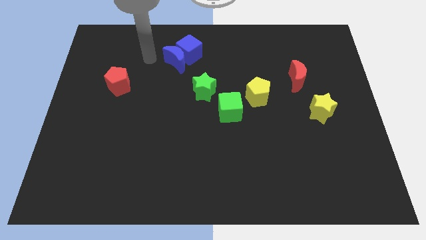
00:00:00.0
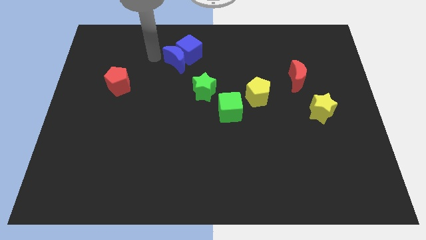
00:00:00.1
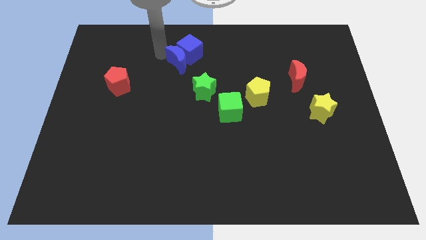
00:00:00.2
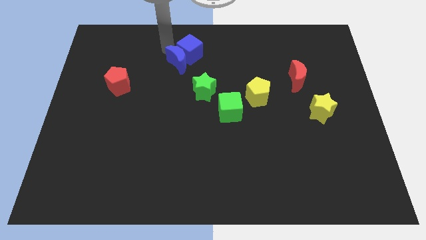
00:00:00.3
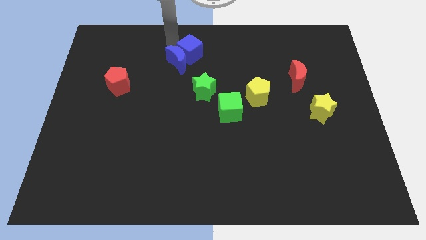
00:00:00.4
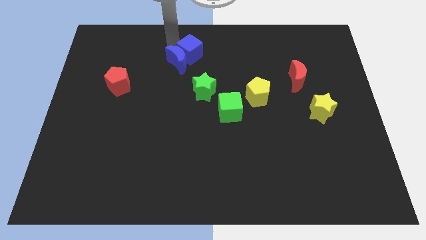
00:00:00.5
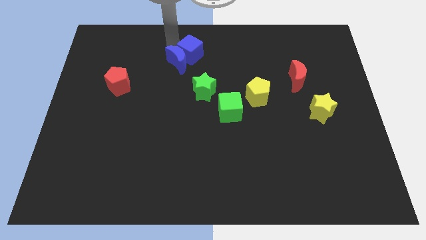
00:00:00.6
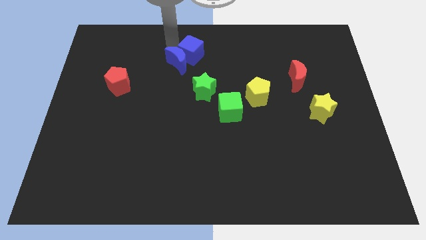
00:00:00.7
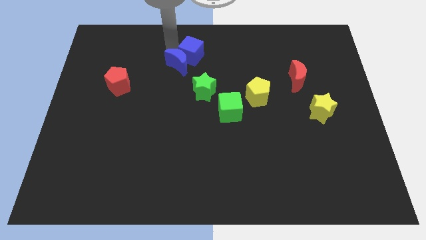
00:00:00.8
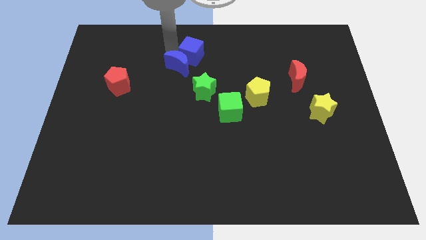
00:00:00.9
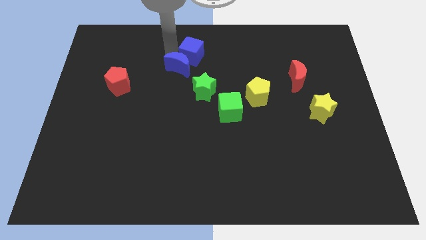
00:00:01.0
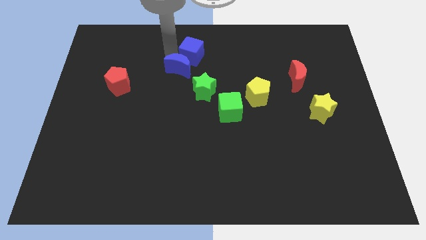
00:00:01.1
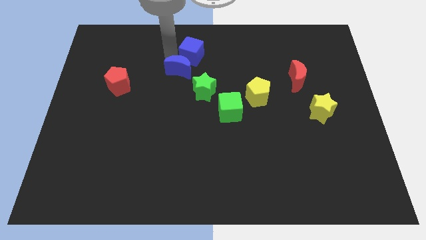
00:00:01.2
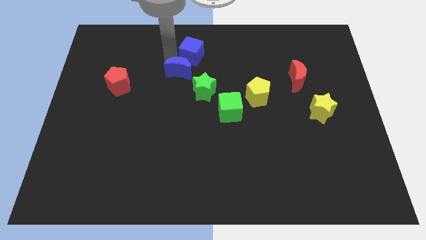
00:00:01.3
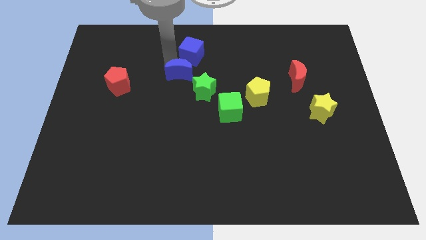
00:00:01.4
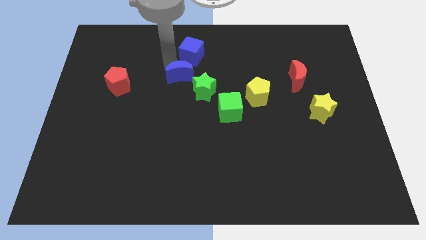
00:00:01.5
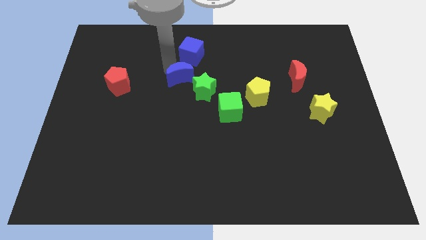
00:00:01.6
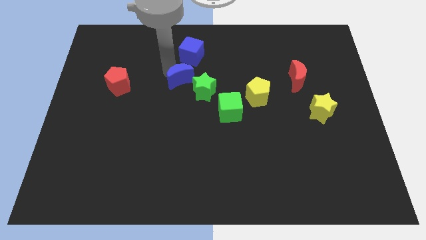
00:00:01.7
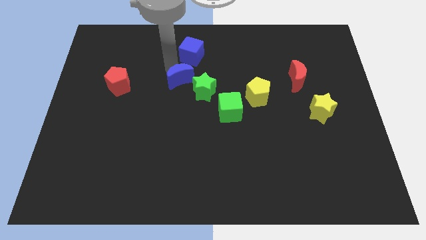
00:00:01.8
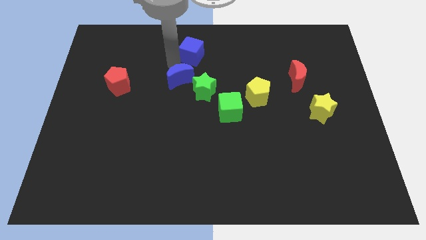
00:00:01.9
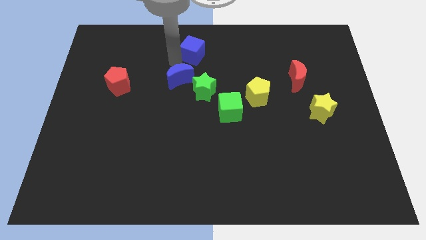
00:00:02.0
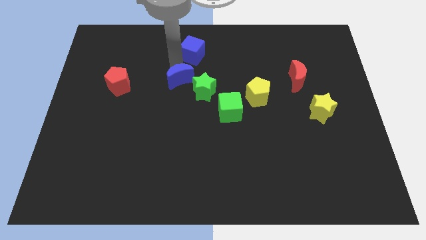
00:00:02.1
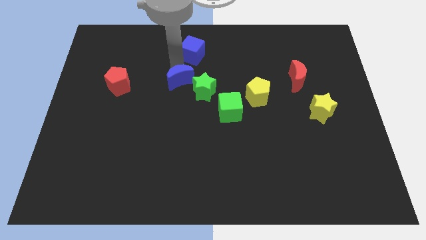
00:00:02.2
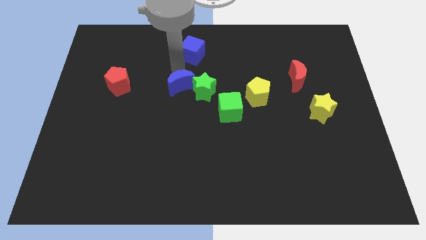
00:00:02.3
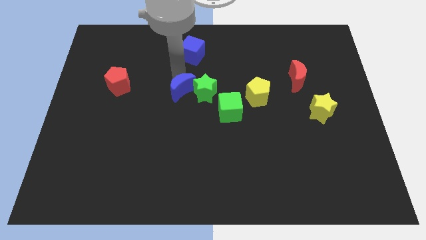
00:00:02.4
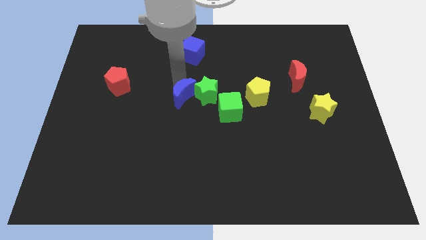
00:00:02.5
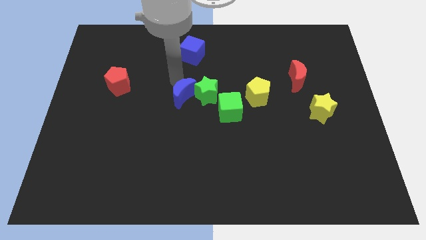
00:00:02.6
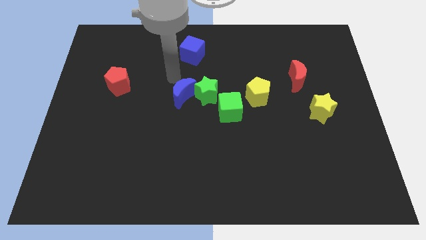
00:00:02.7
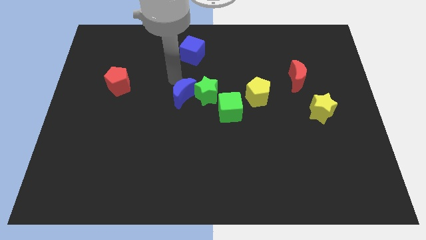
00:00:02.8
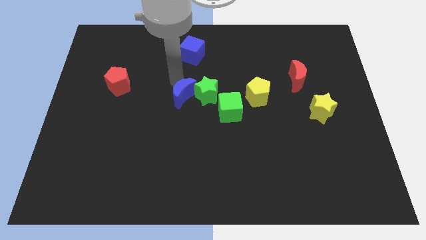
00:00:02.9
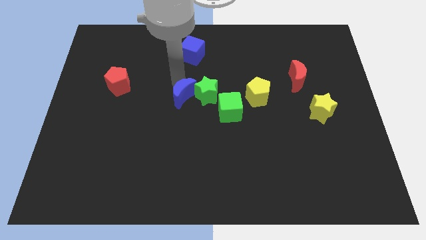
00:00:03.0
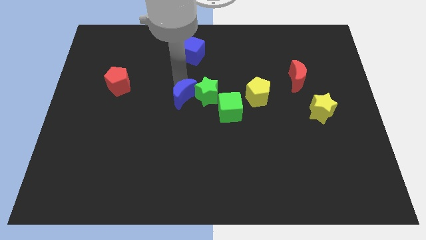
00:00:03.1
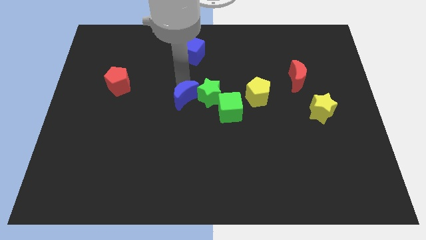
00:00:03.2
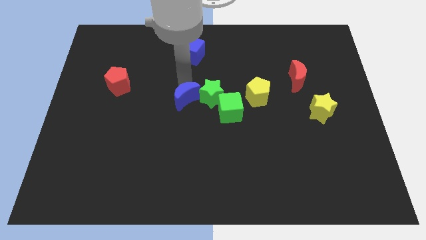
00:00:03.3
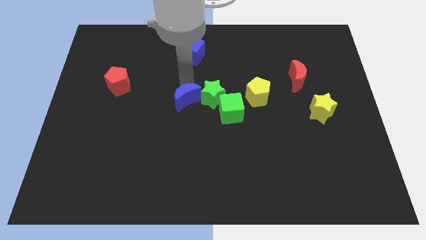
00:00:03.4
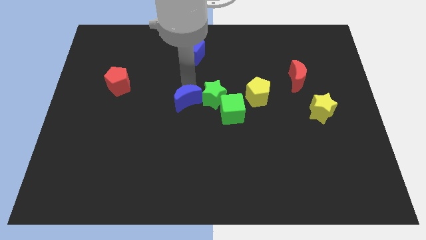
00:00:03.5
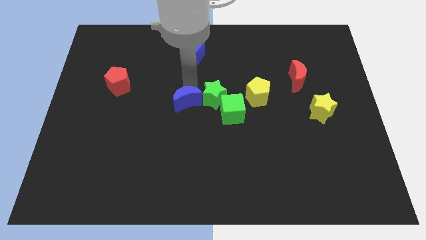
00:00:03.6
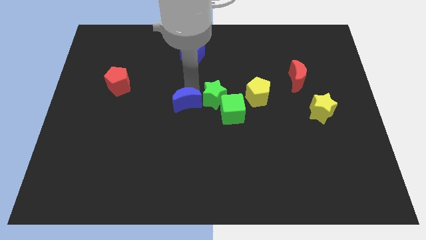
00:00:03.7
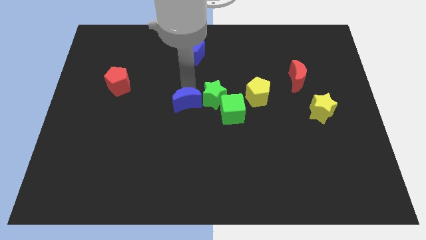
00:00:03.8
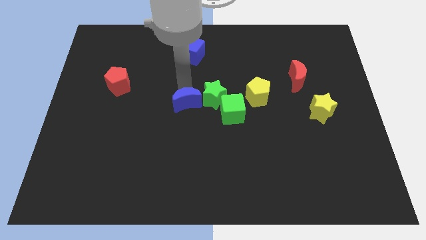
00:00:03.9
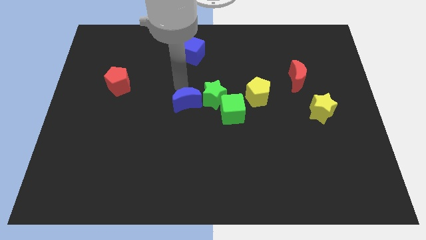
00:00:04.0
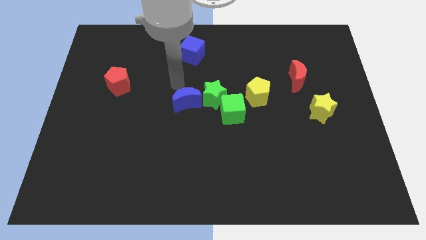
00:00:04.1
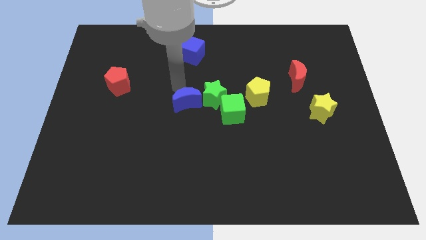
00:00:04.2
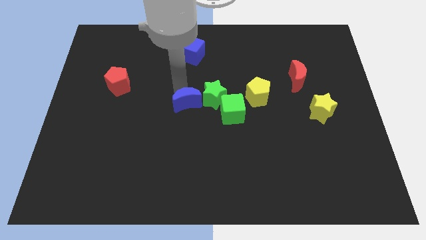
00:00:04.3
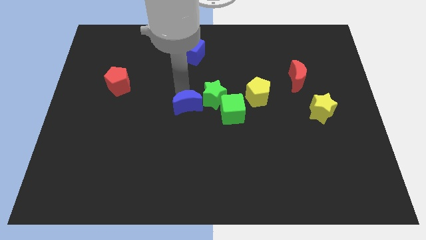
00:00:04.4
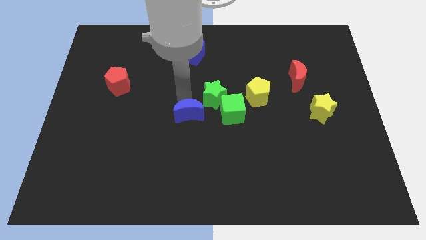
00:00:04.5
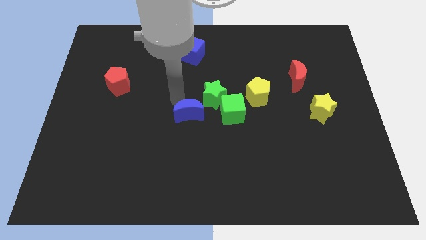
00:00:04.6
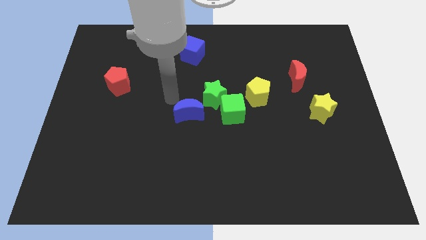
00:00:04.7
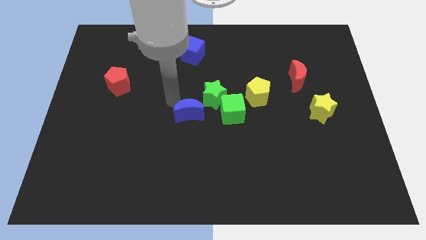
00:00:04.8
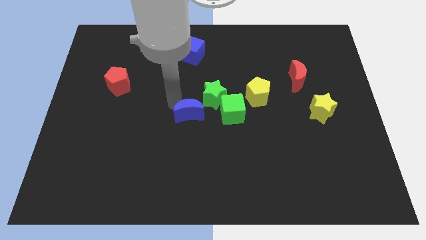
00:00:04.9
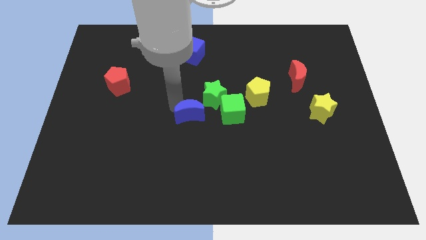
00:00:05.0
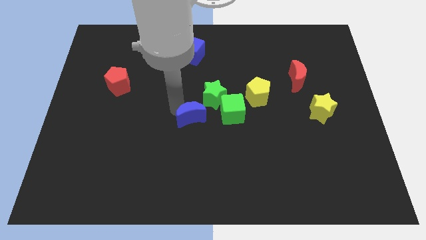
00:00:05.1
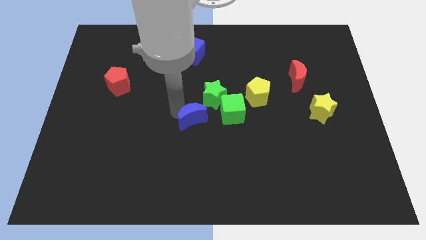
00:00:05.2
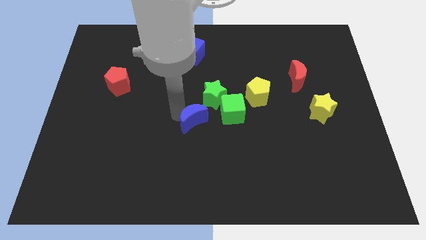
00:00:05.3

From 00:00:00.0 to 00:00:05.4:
slide the blue moon to the bottom side of the green star

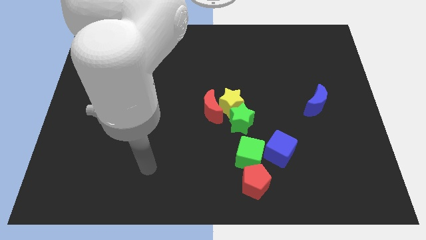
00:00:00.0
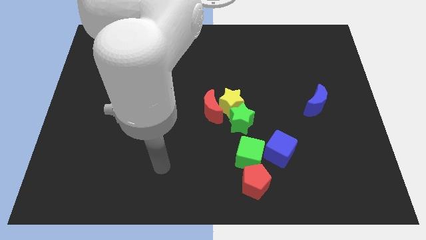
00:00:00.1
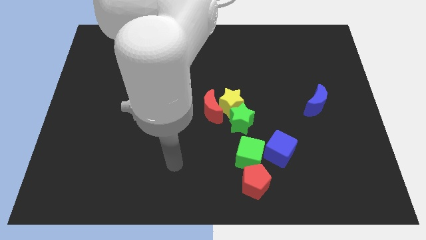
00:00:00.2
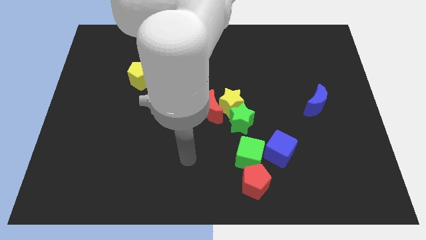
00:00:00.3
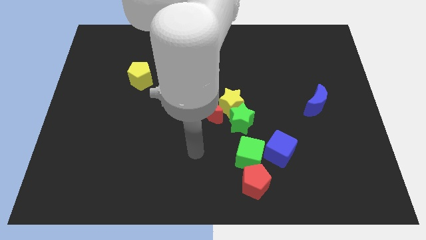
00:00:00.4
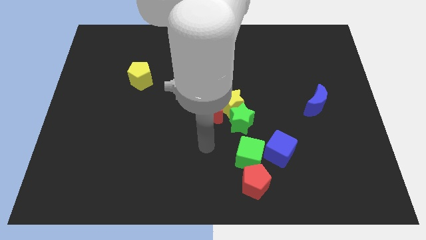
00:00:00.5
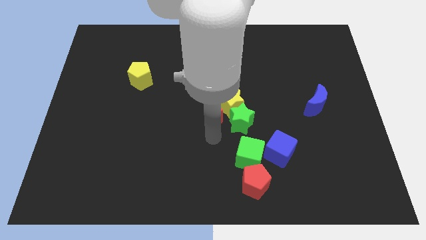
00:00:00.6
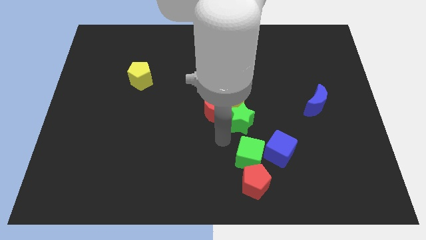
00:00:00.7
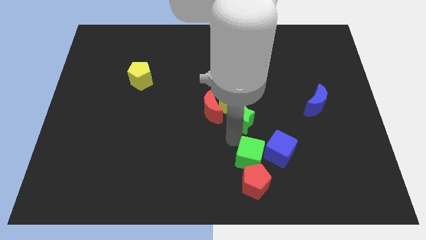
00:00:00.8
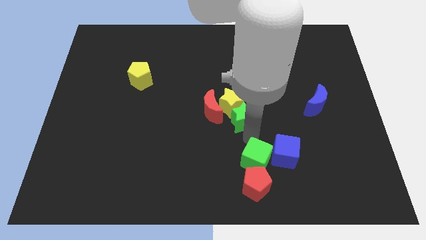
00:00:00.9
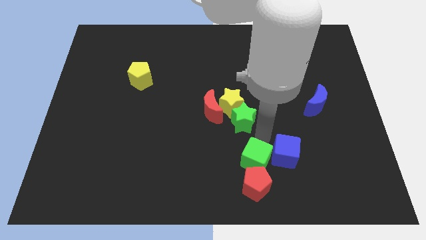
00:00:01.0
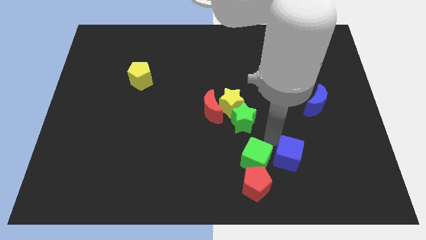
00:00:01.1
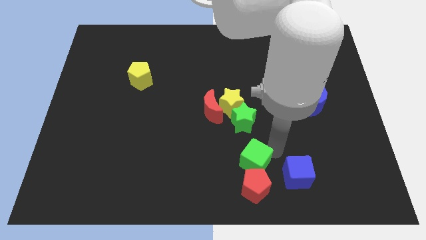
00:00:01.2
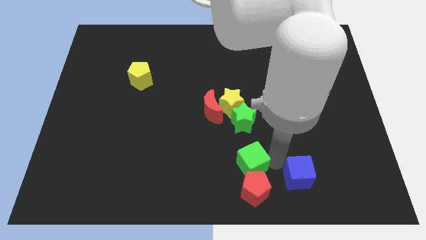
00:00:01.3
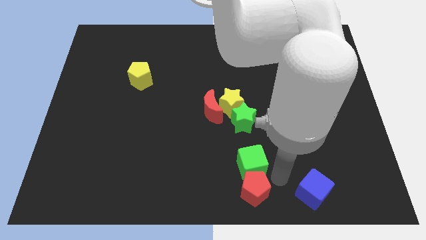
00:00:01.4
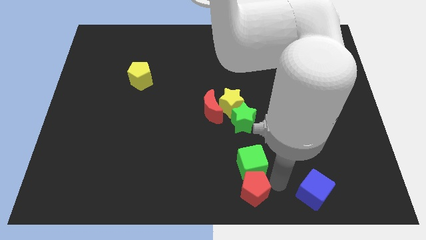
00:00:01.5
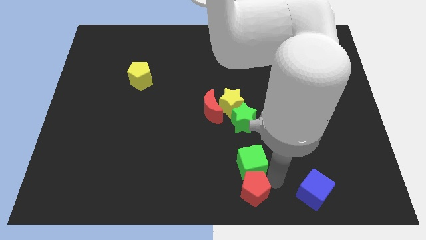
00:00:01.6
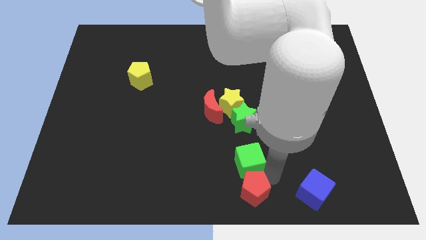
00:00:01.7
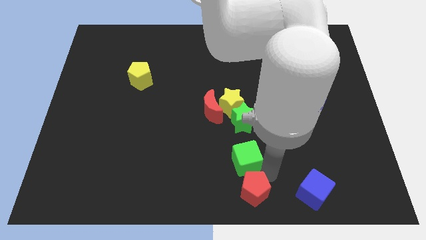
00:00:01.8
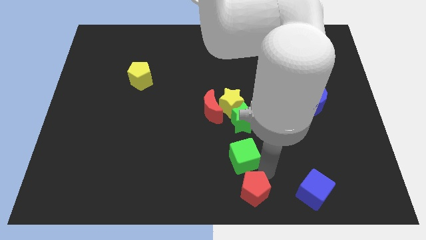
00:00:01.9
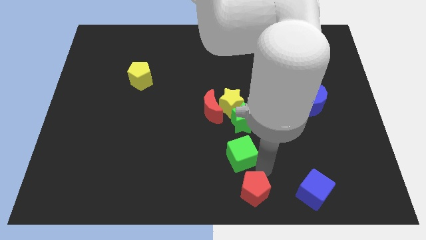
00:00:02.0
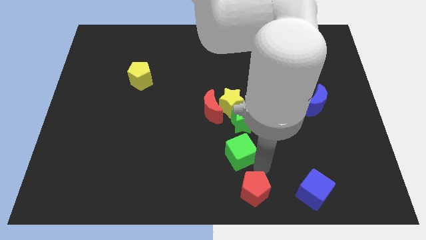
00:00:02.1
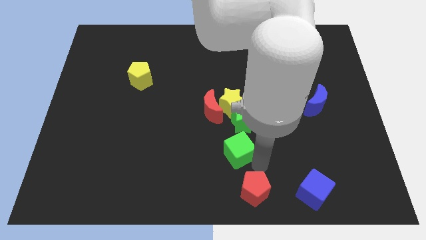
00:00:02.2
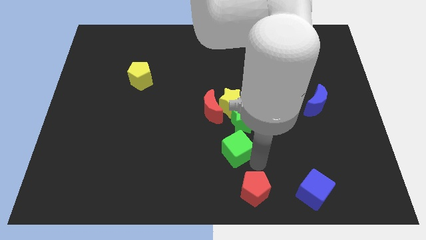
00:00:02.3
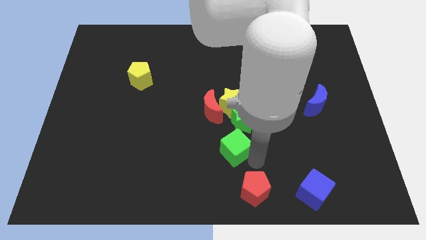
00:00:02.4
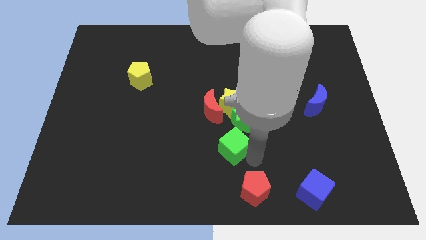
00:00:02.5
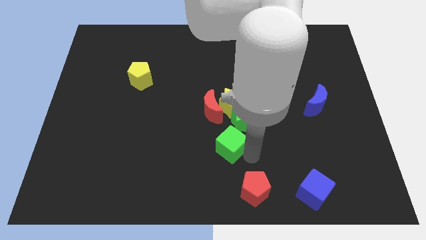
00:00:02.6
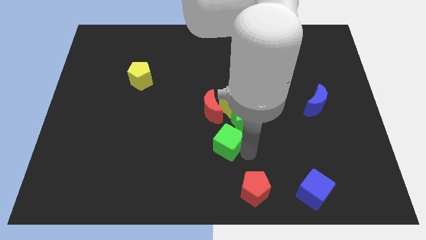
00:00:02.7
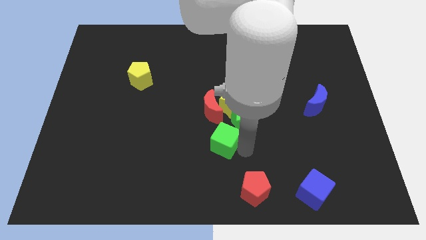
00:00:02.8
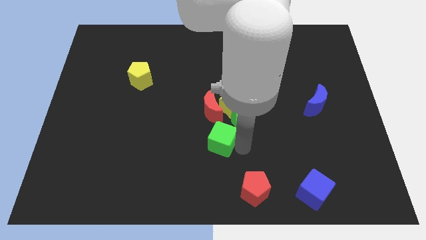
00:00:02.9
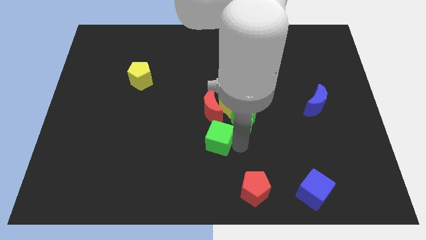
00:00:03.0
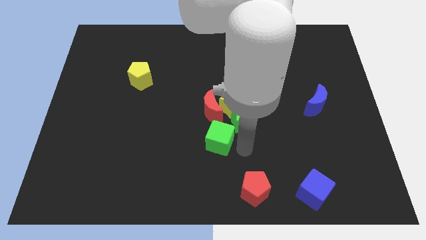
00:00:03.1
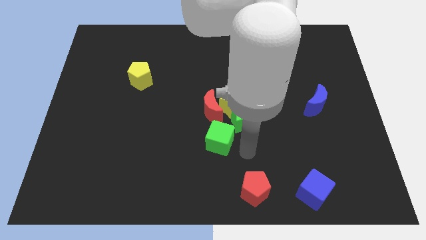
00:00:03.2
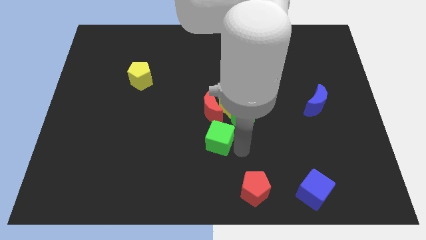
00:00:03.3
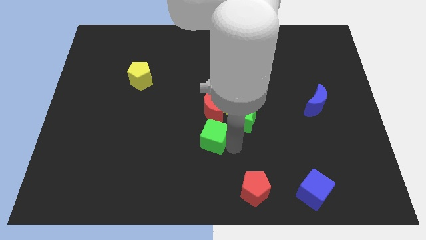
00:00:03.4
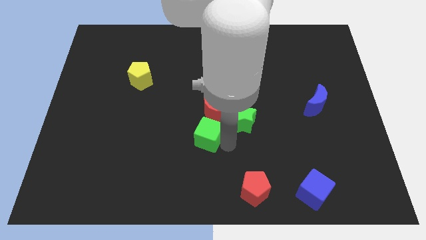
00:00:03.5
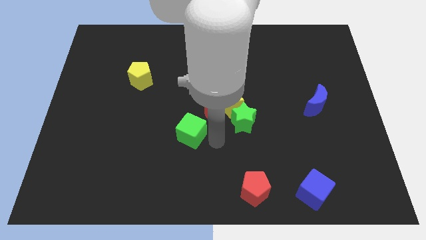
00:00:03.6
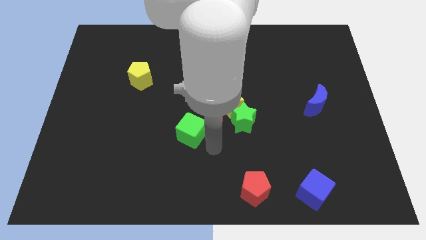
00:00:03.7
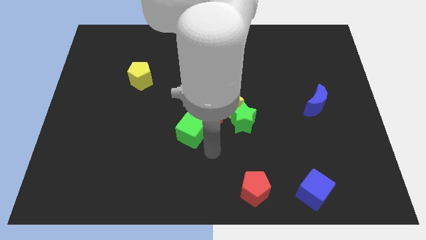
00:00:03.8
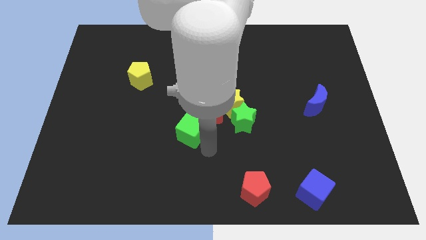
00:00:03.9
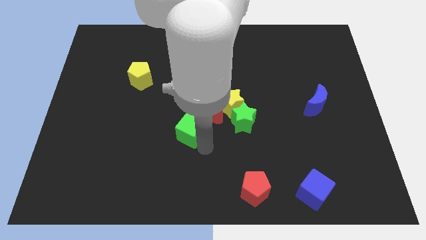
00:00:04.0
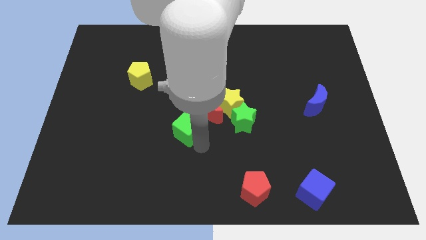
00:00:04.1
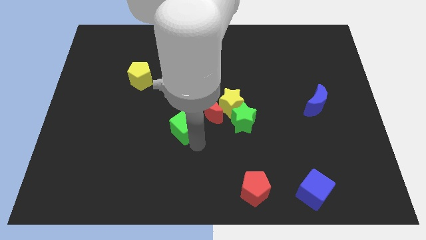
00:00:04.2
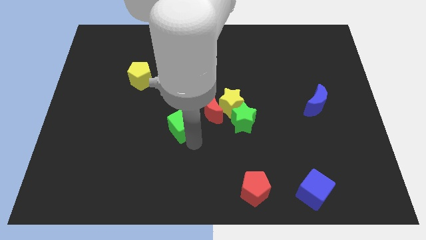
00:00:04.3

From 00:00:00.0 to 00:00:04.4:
put the green cube left of the red moon
